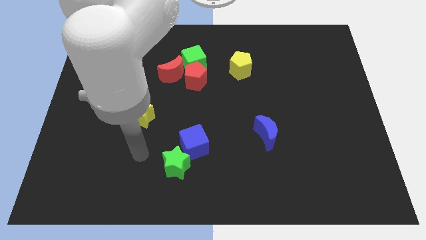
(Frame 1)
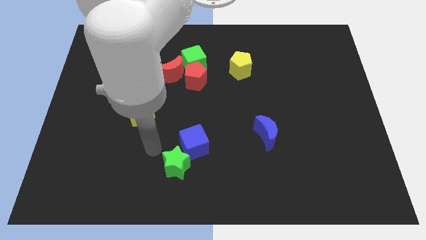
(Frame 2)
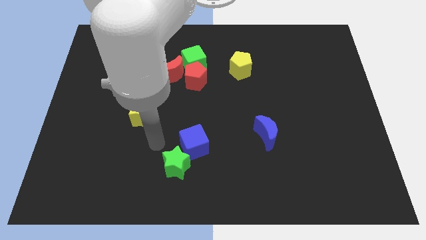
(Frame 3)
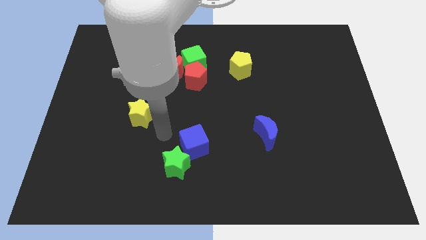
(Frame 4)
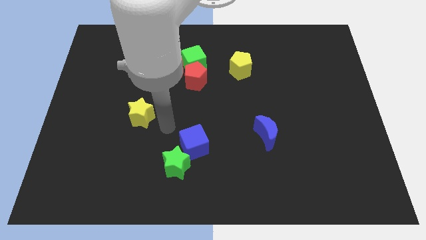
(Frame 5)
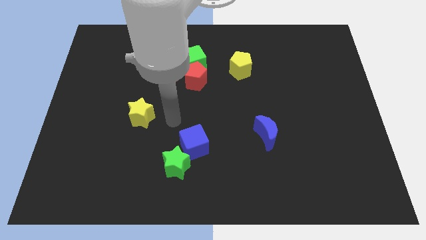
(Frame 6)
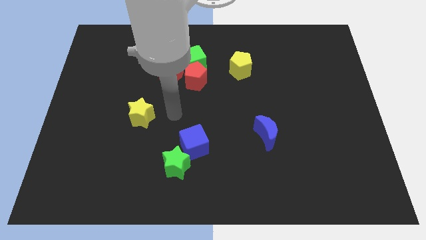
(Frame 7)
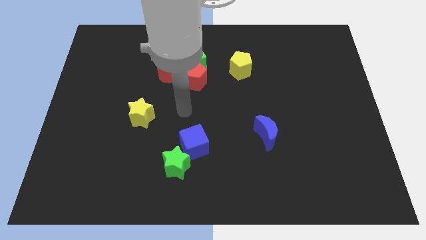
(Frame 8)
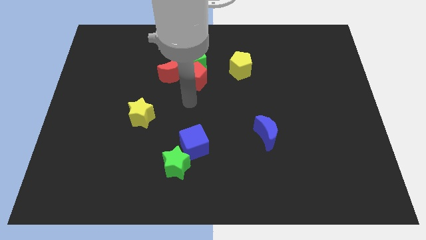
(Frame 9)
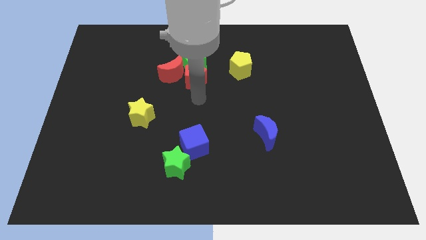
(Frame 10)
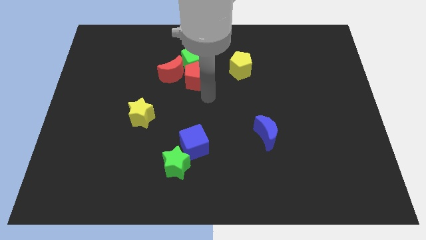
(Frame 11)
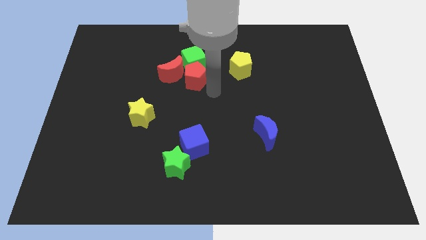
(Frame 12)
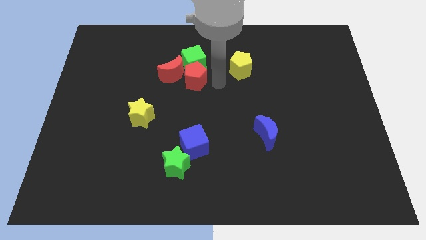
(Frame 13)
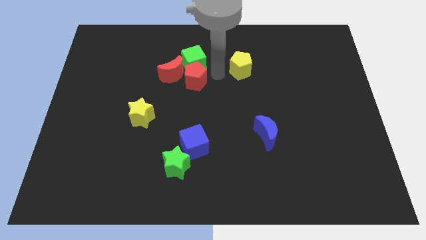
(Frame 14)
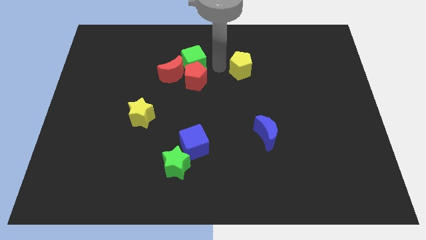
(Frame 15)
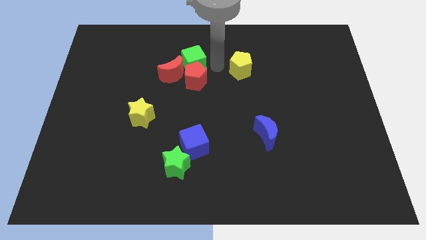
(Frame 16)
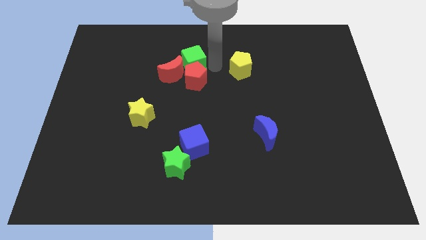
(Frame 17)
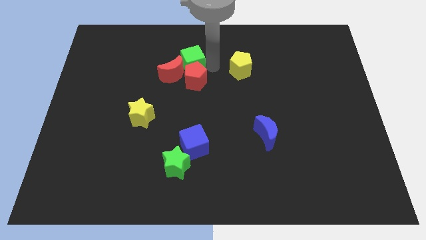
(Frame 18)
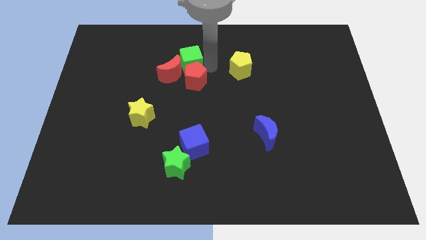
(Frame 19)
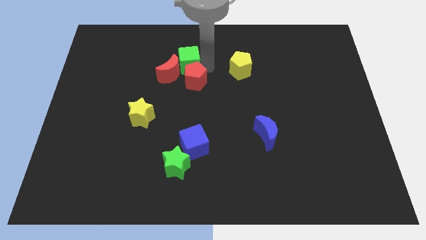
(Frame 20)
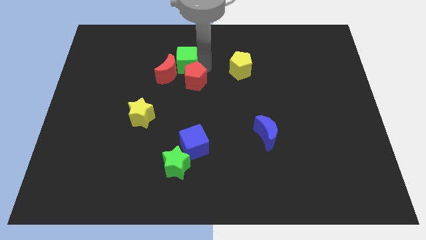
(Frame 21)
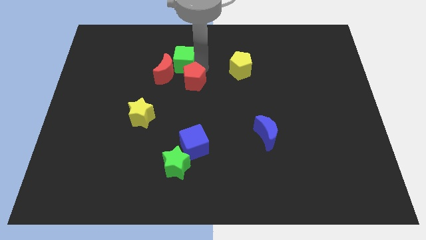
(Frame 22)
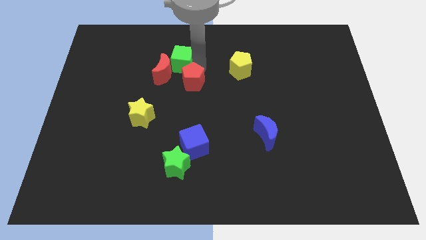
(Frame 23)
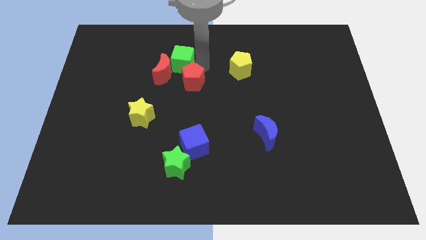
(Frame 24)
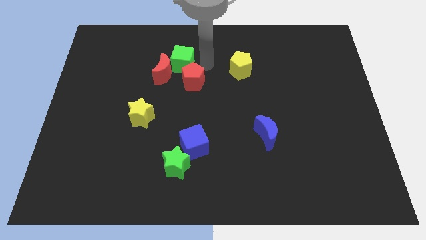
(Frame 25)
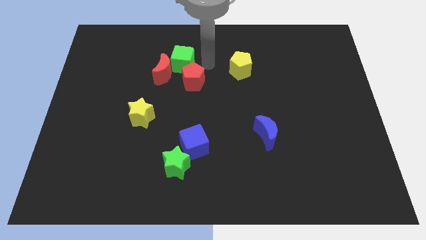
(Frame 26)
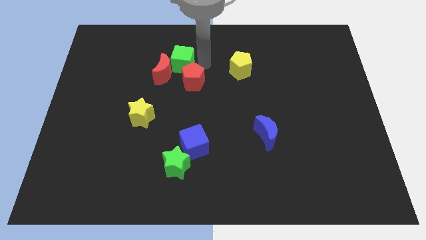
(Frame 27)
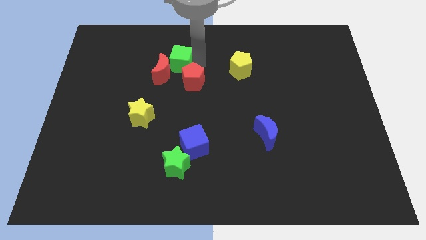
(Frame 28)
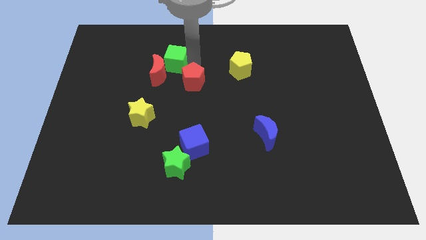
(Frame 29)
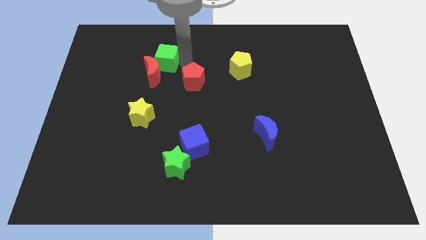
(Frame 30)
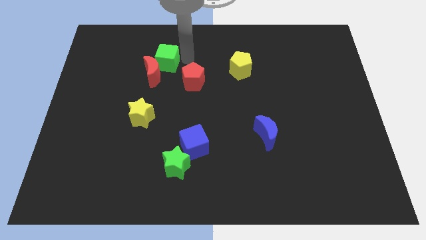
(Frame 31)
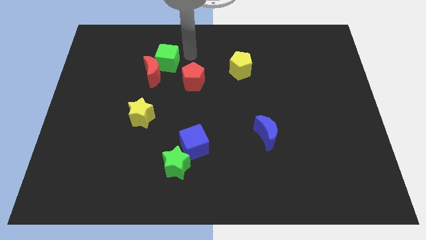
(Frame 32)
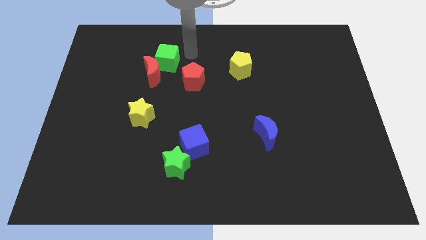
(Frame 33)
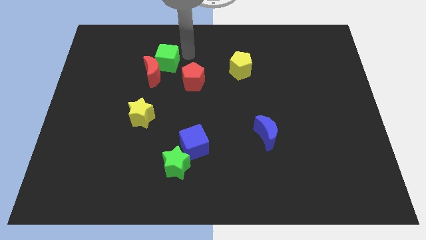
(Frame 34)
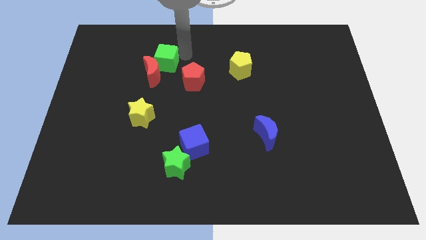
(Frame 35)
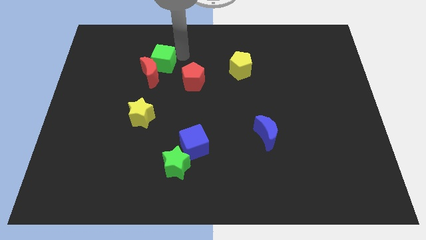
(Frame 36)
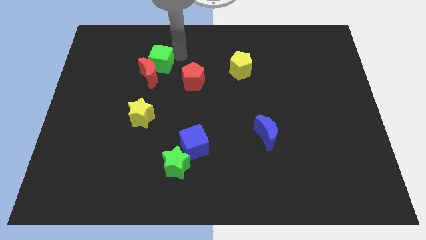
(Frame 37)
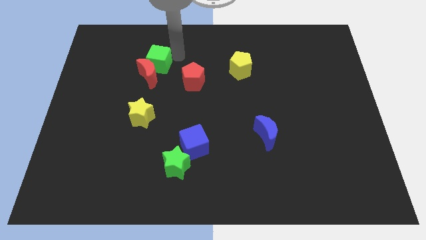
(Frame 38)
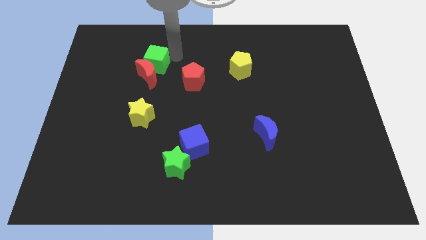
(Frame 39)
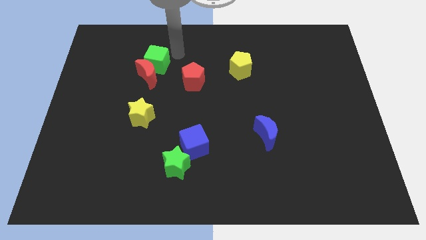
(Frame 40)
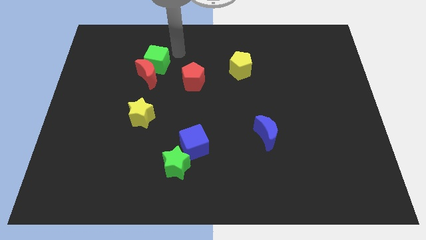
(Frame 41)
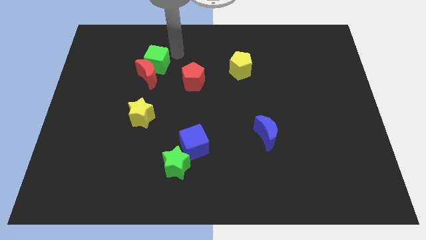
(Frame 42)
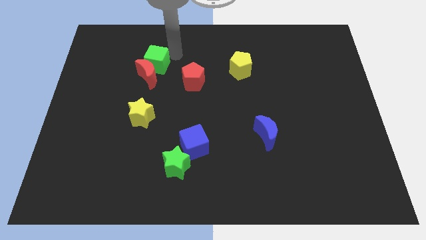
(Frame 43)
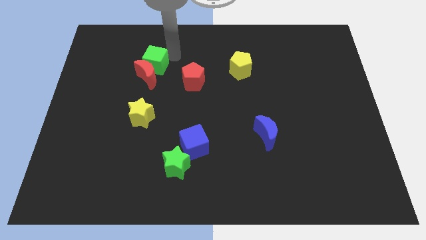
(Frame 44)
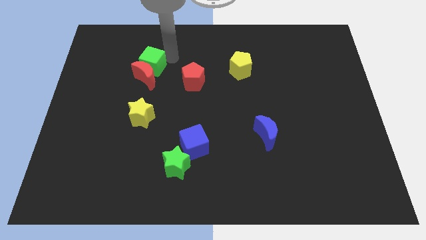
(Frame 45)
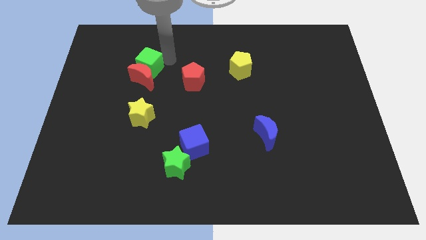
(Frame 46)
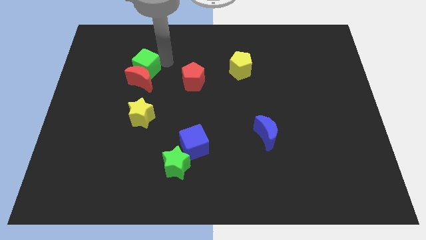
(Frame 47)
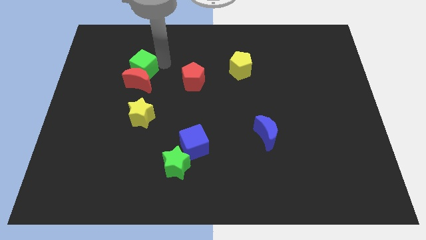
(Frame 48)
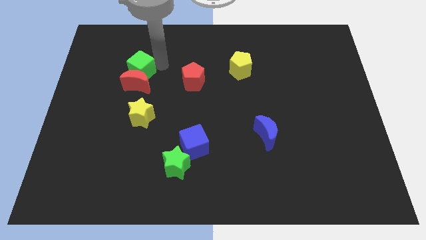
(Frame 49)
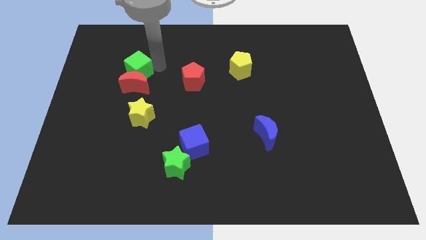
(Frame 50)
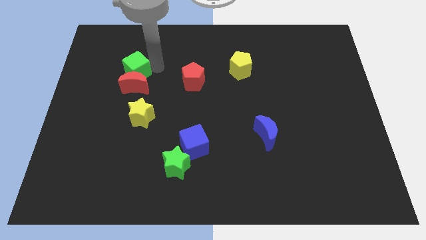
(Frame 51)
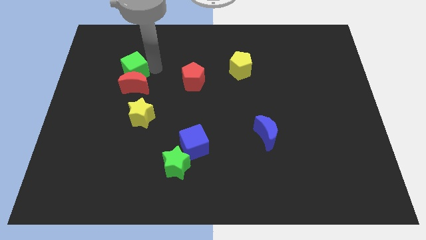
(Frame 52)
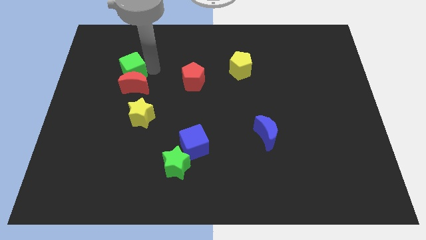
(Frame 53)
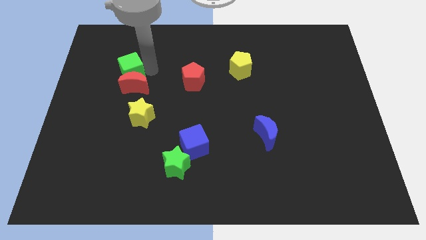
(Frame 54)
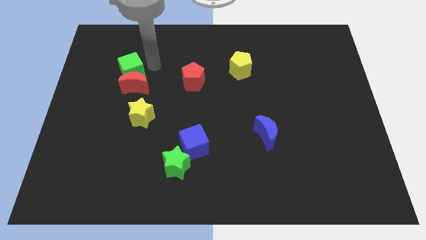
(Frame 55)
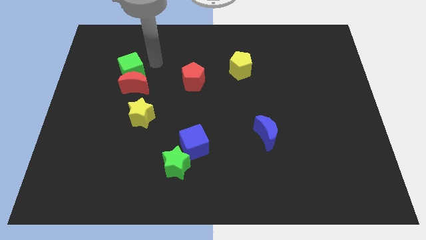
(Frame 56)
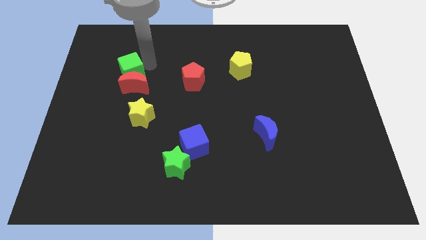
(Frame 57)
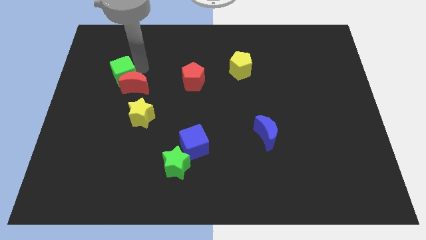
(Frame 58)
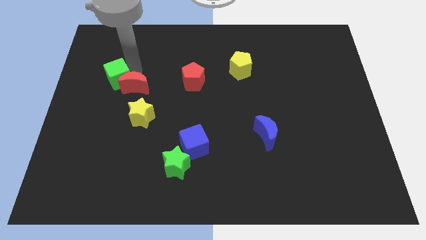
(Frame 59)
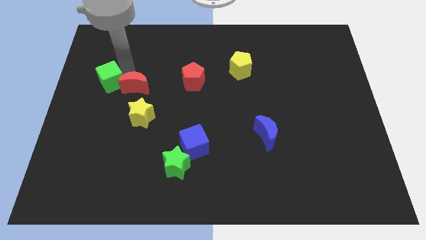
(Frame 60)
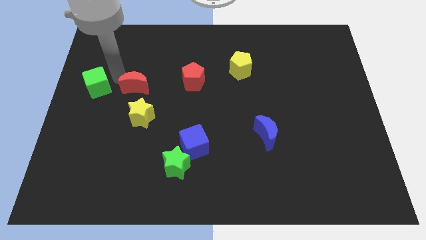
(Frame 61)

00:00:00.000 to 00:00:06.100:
move the green cube to the left side of the board

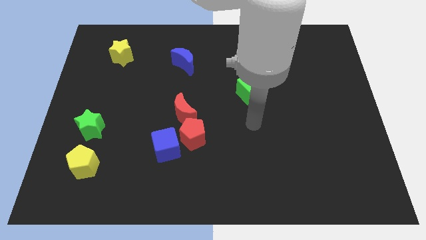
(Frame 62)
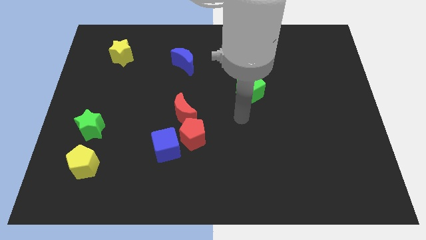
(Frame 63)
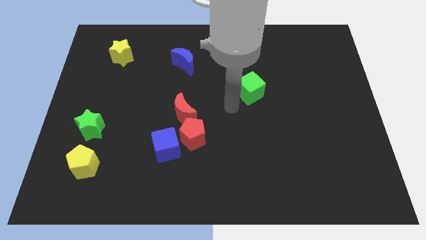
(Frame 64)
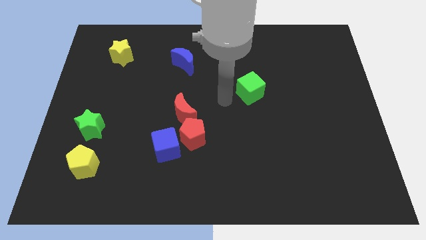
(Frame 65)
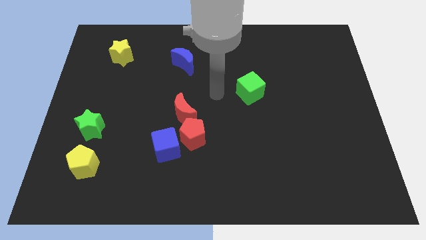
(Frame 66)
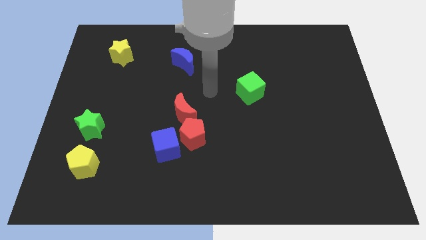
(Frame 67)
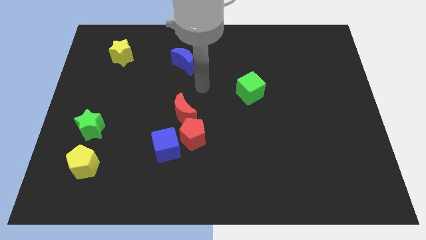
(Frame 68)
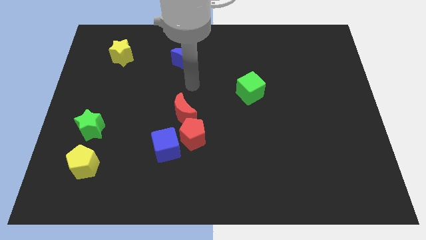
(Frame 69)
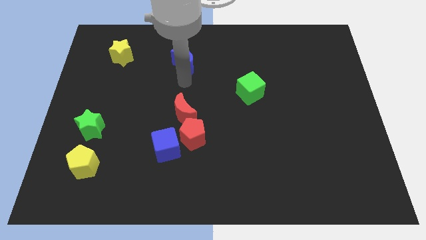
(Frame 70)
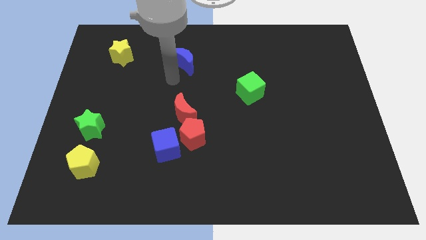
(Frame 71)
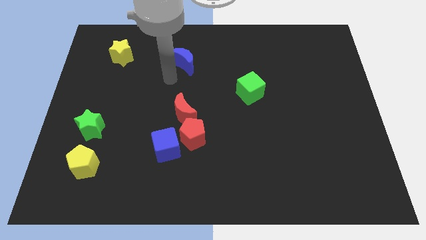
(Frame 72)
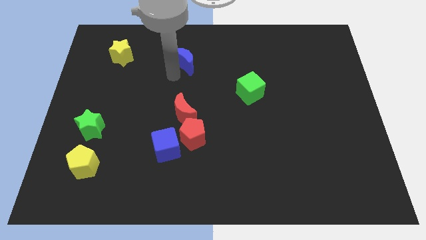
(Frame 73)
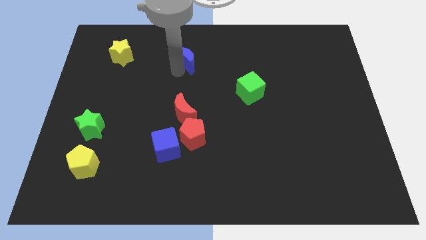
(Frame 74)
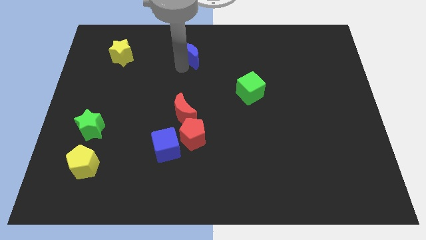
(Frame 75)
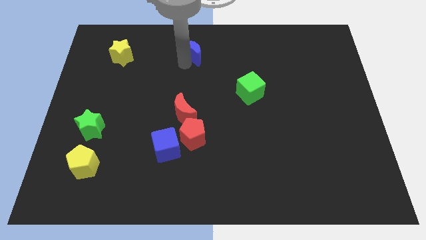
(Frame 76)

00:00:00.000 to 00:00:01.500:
put the blue moon to the top side
